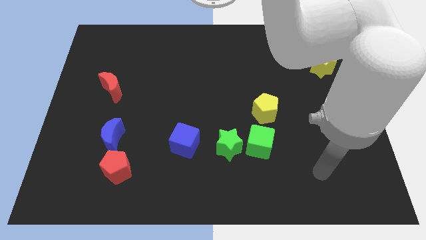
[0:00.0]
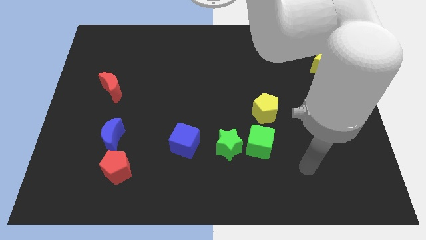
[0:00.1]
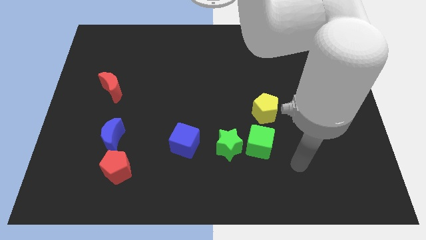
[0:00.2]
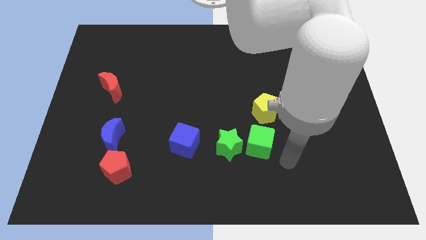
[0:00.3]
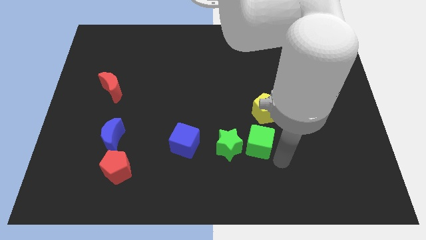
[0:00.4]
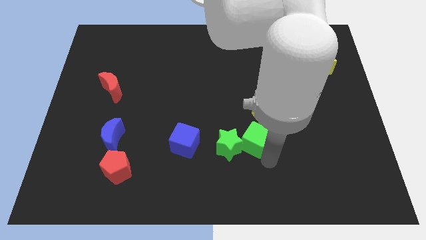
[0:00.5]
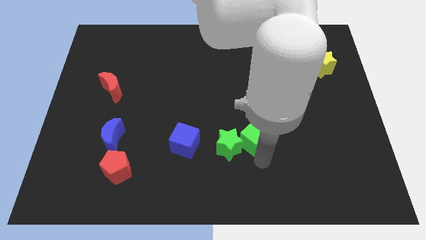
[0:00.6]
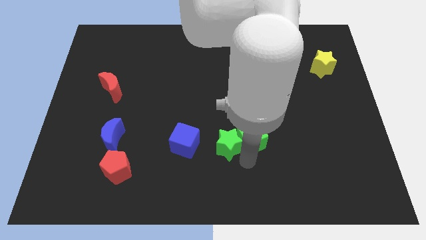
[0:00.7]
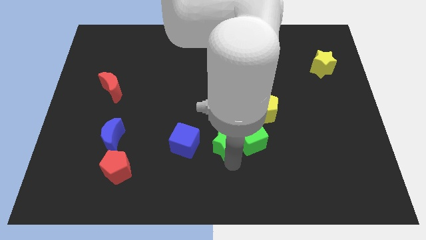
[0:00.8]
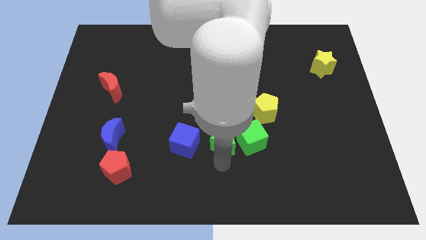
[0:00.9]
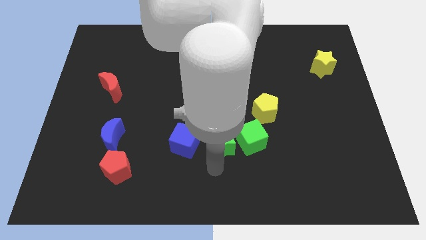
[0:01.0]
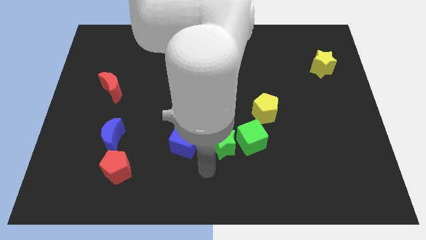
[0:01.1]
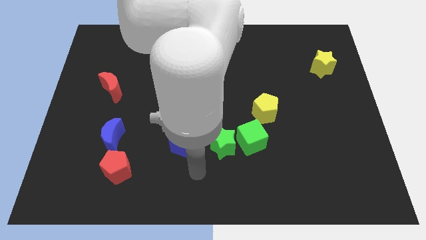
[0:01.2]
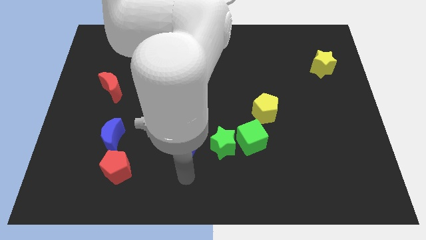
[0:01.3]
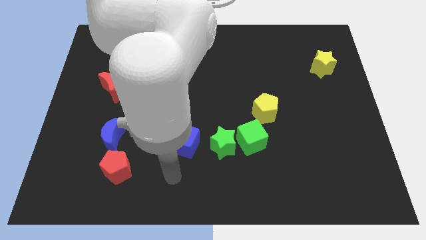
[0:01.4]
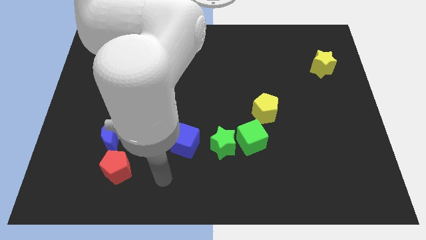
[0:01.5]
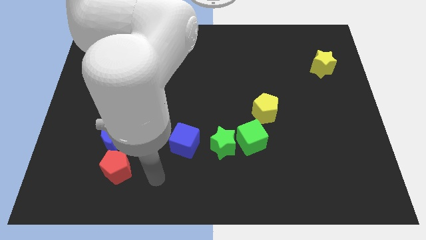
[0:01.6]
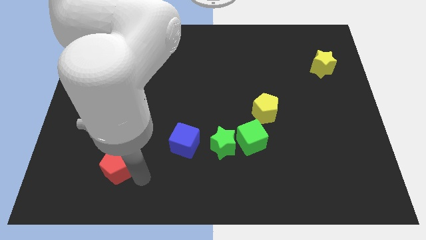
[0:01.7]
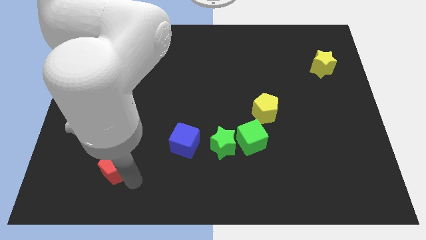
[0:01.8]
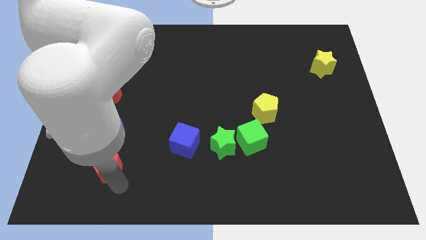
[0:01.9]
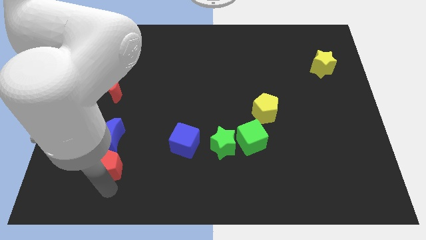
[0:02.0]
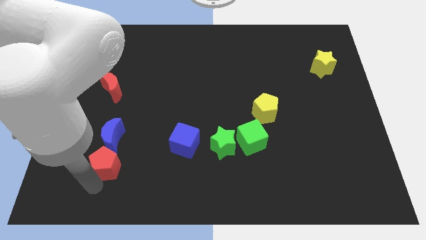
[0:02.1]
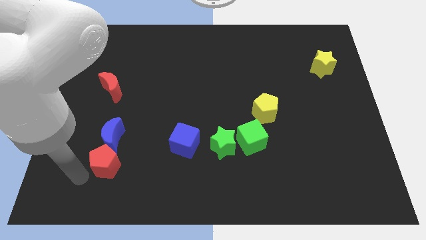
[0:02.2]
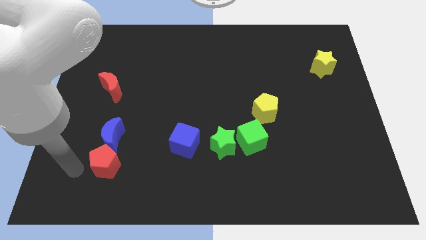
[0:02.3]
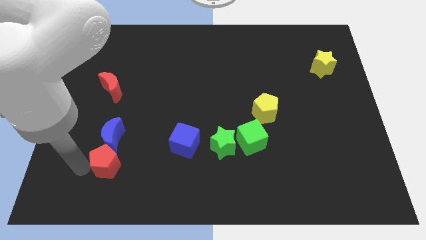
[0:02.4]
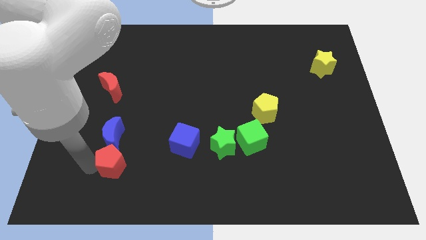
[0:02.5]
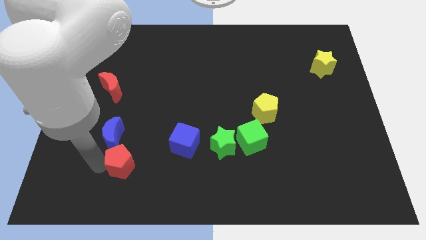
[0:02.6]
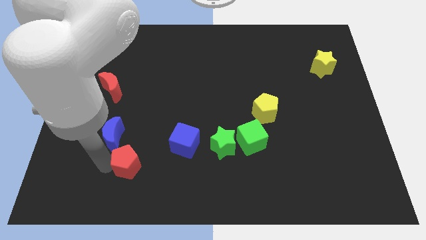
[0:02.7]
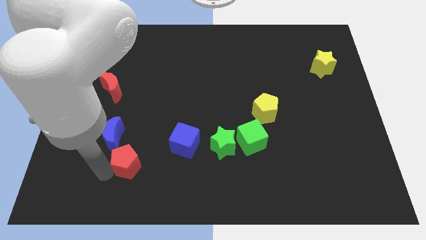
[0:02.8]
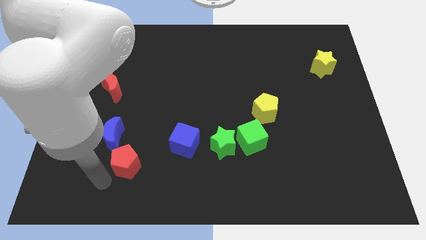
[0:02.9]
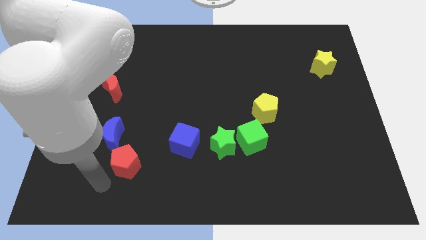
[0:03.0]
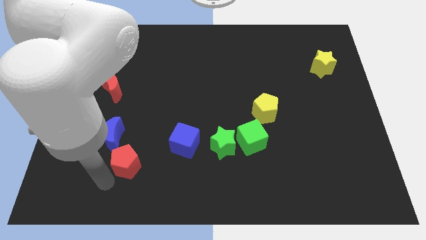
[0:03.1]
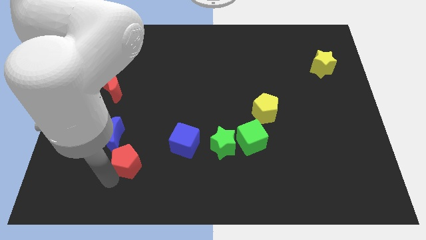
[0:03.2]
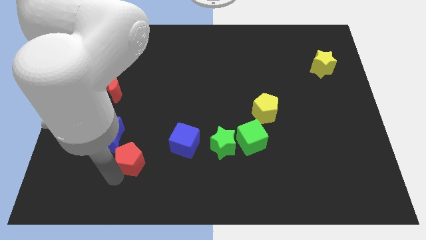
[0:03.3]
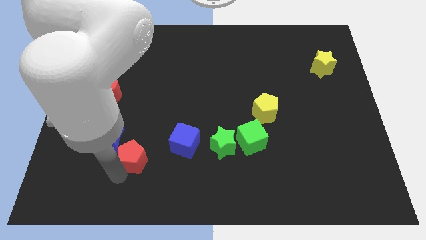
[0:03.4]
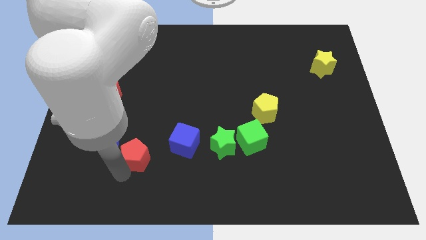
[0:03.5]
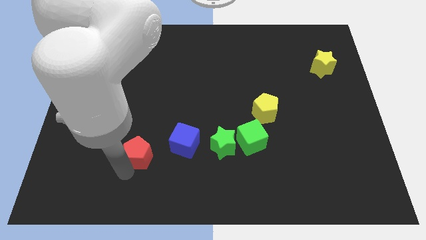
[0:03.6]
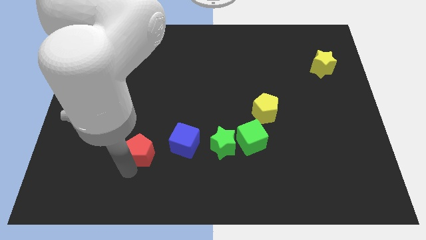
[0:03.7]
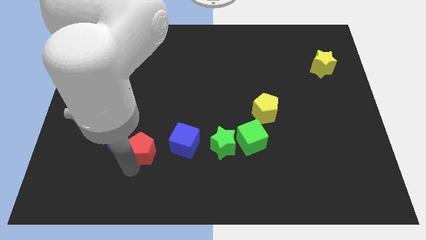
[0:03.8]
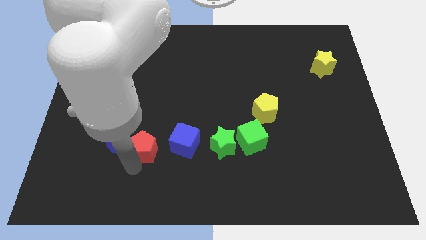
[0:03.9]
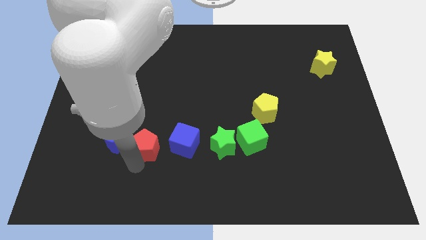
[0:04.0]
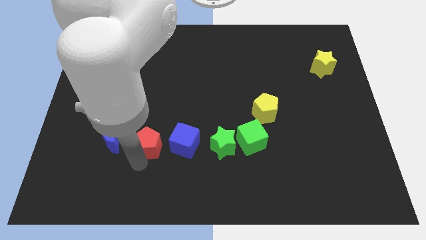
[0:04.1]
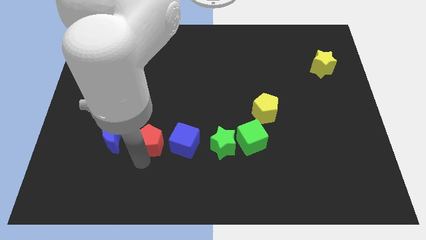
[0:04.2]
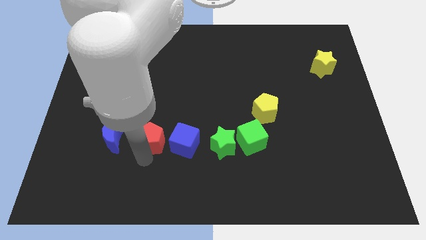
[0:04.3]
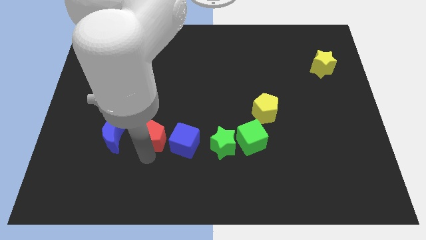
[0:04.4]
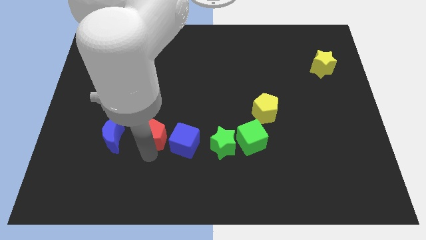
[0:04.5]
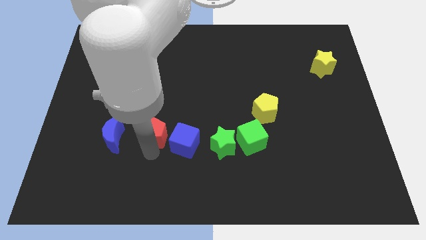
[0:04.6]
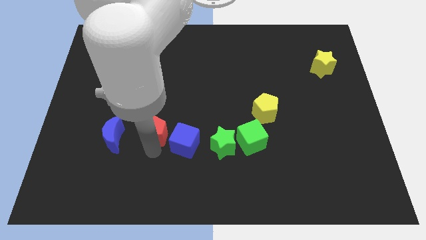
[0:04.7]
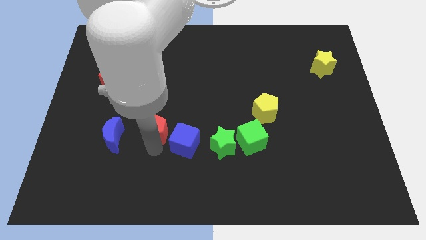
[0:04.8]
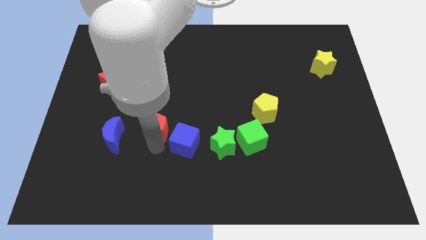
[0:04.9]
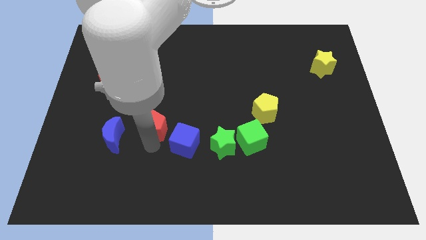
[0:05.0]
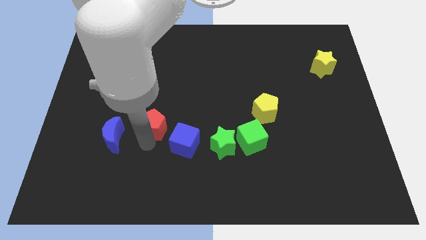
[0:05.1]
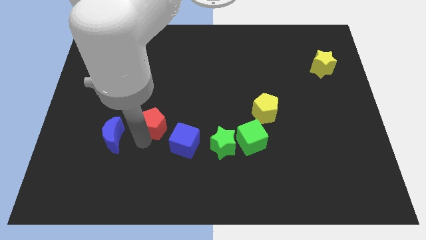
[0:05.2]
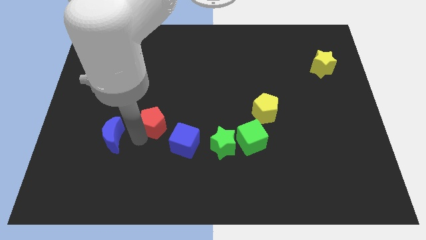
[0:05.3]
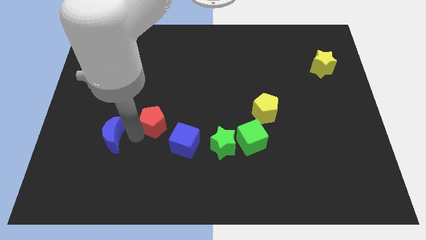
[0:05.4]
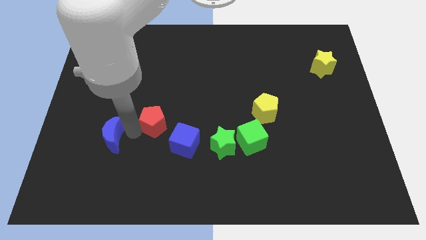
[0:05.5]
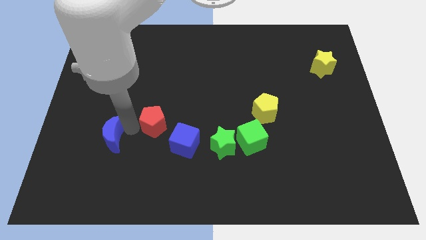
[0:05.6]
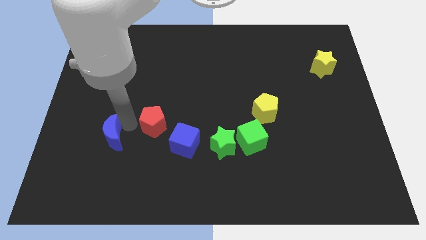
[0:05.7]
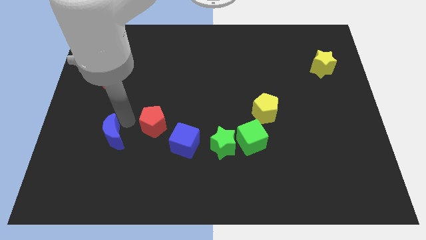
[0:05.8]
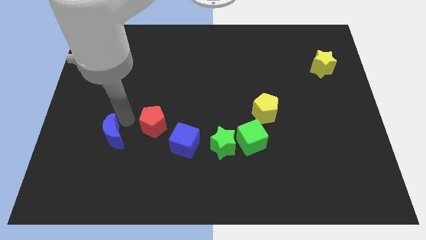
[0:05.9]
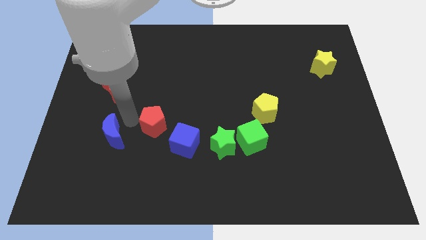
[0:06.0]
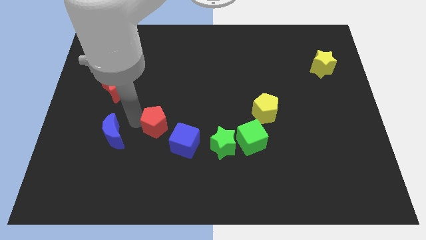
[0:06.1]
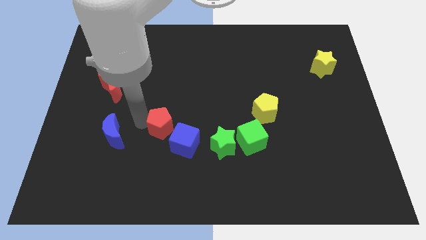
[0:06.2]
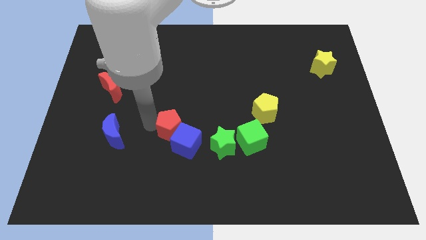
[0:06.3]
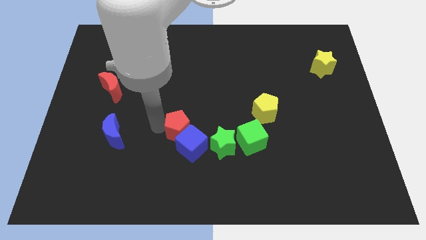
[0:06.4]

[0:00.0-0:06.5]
push the red pentagon diagonally up and to the left of the green star
